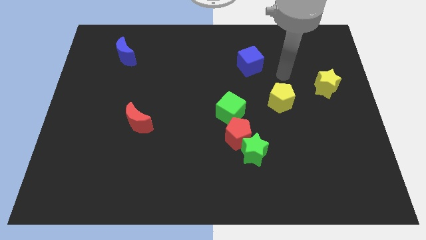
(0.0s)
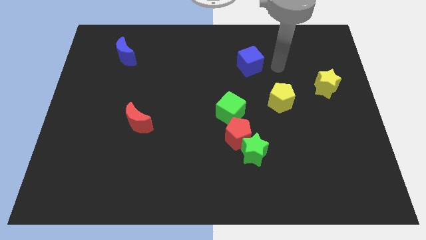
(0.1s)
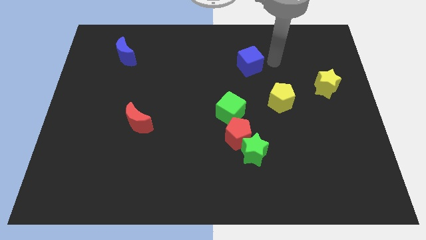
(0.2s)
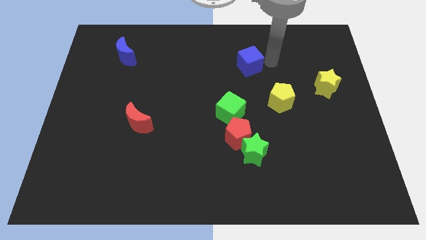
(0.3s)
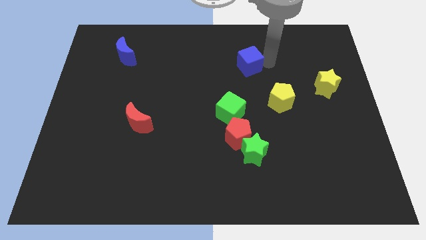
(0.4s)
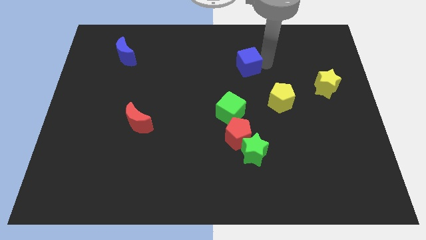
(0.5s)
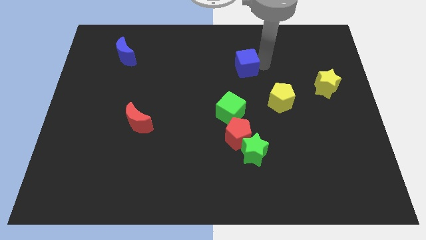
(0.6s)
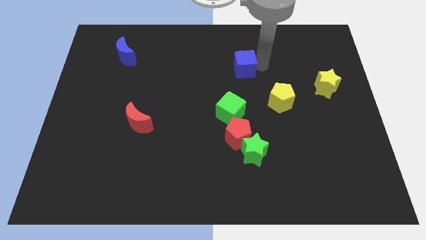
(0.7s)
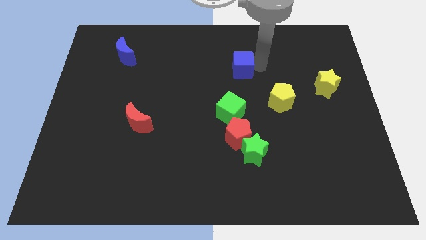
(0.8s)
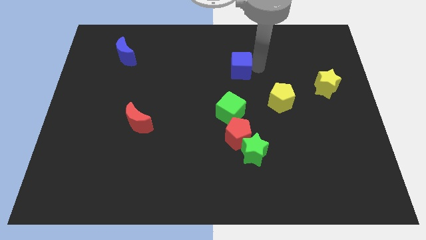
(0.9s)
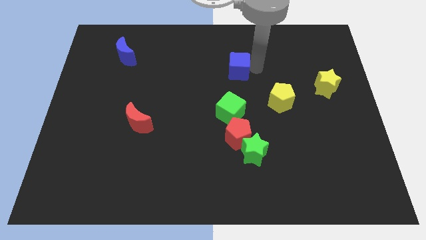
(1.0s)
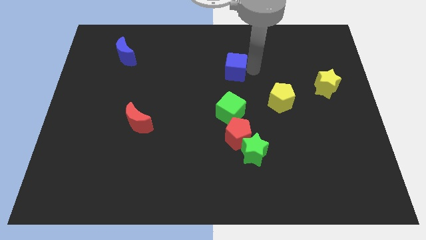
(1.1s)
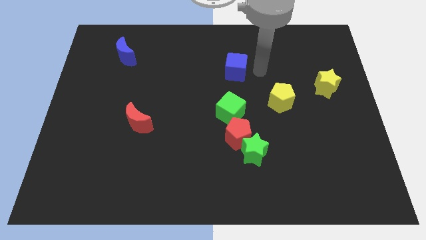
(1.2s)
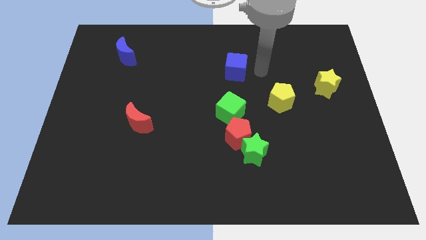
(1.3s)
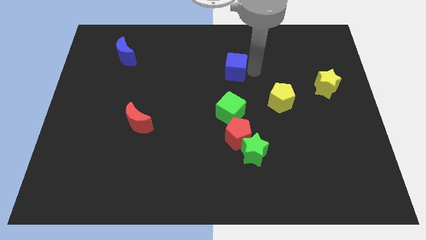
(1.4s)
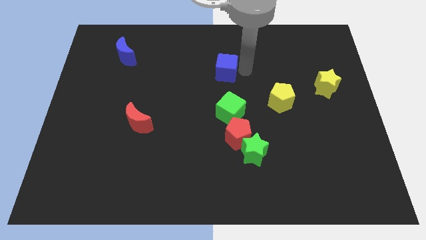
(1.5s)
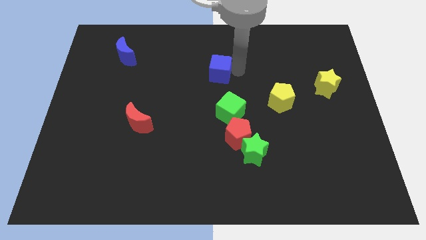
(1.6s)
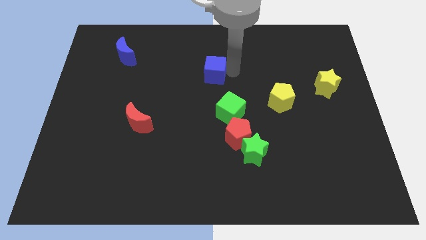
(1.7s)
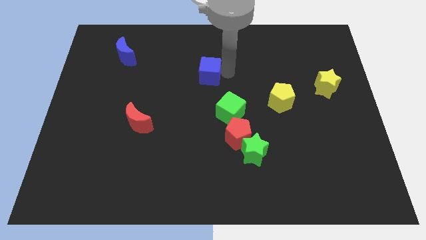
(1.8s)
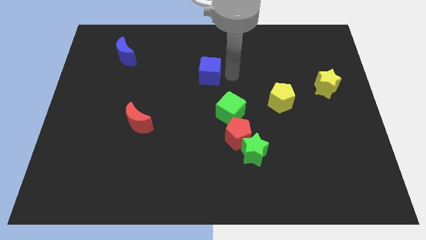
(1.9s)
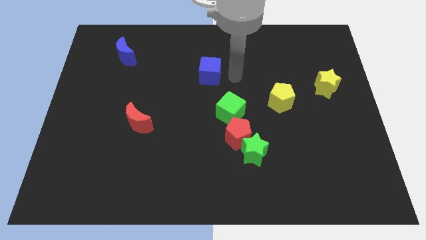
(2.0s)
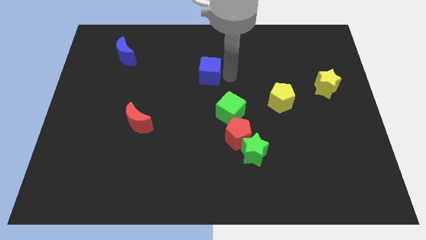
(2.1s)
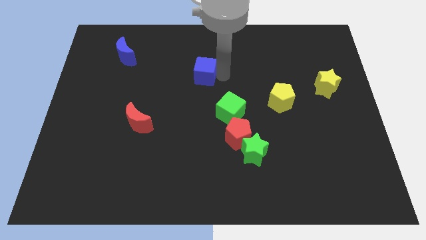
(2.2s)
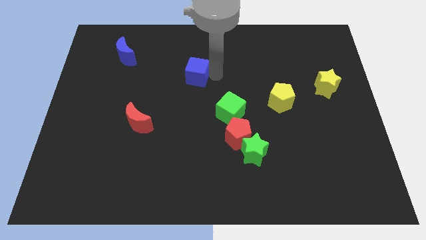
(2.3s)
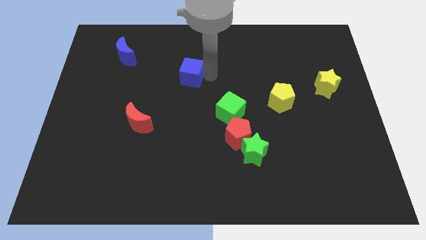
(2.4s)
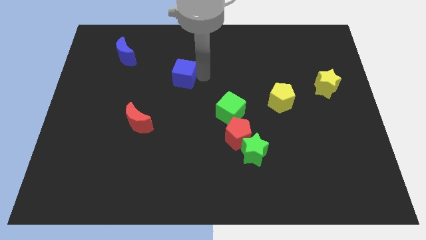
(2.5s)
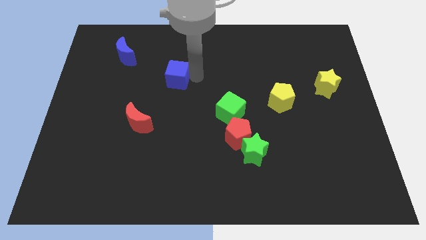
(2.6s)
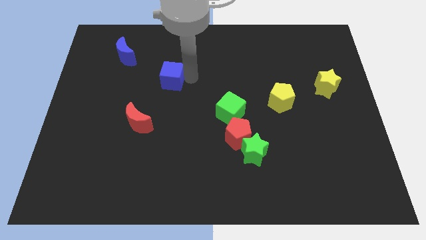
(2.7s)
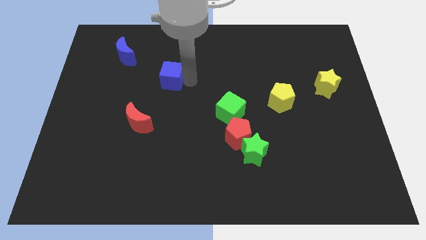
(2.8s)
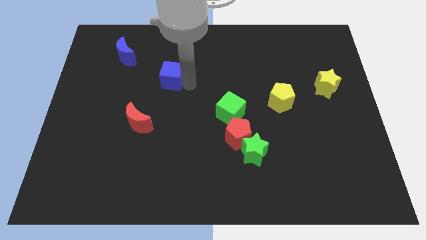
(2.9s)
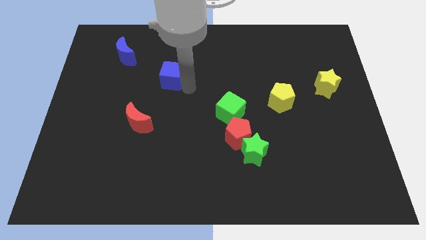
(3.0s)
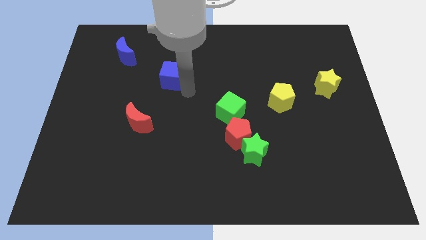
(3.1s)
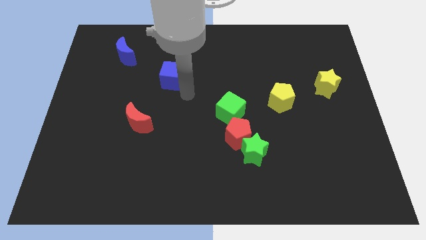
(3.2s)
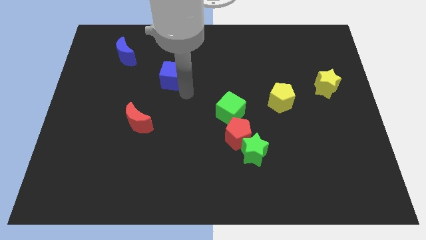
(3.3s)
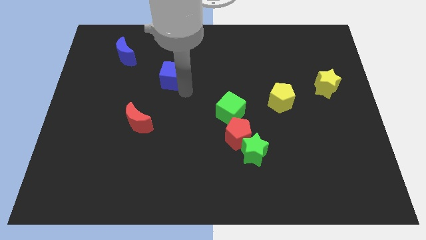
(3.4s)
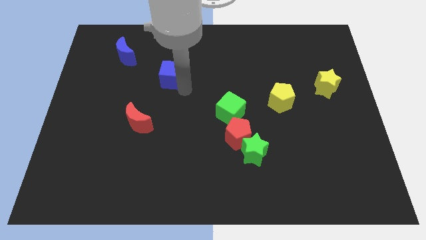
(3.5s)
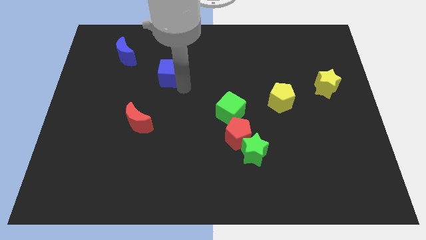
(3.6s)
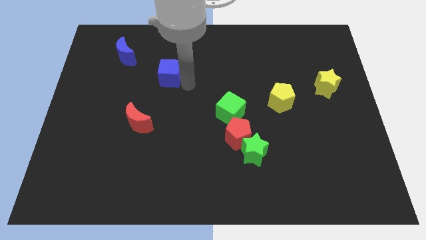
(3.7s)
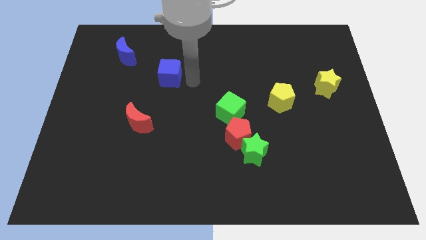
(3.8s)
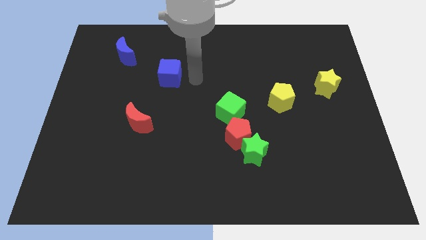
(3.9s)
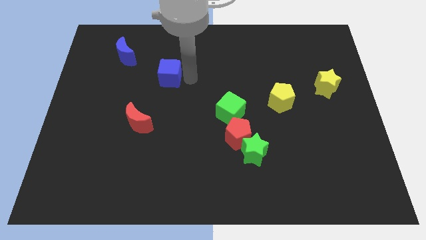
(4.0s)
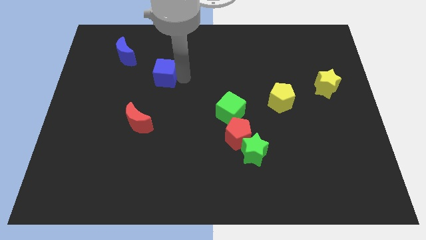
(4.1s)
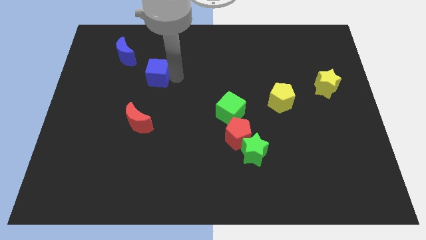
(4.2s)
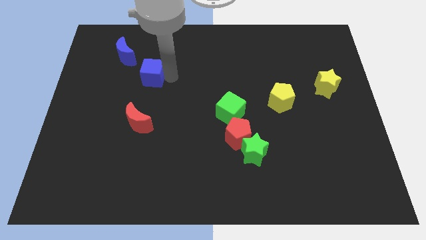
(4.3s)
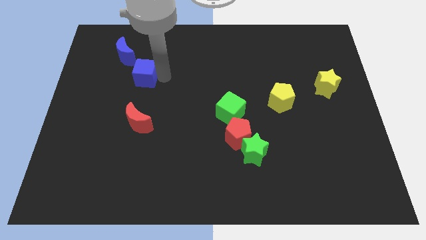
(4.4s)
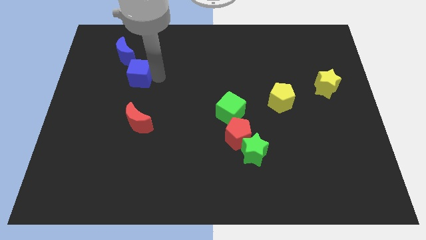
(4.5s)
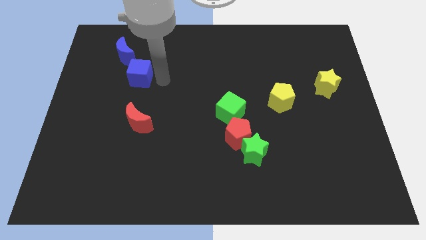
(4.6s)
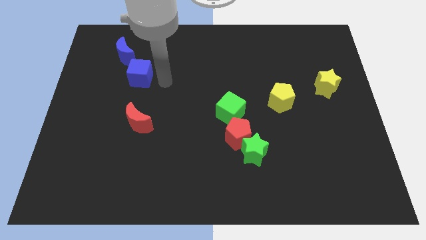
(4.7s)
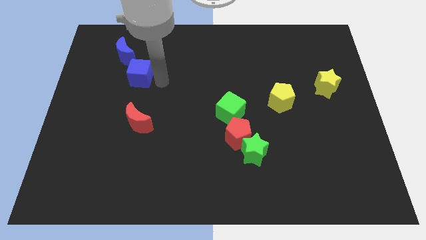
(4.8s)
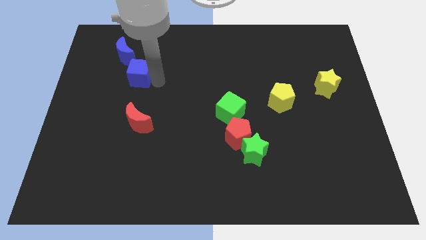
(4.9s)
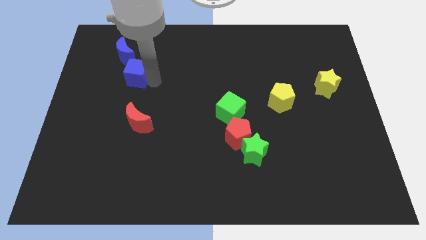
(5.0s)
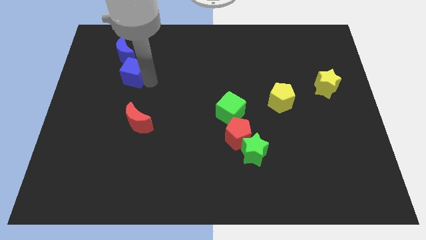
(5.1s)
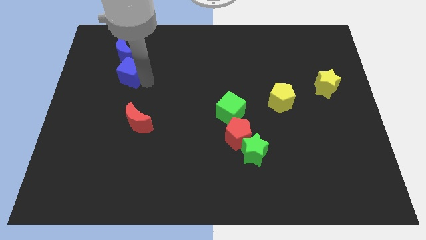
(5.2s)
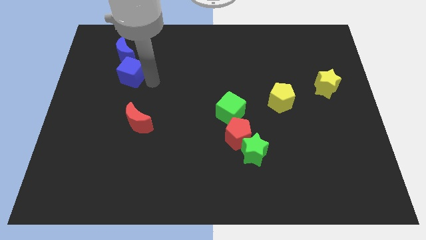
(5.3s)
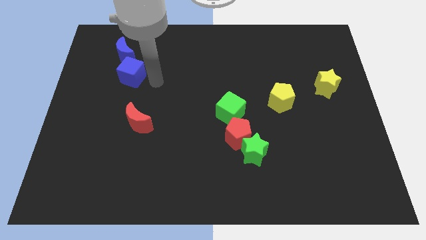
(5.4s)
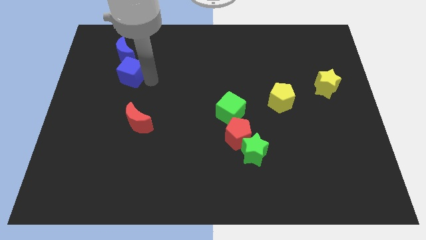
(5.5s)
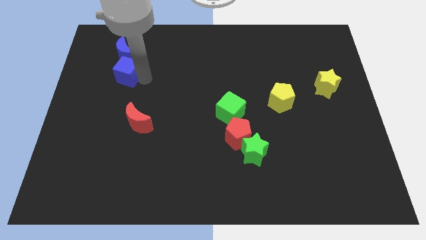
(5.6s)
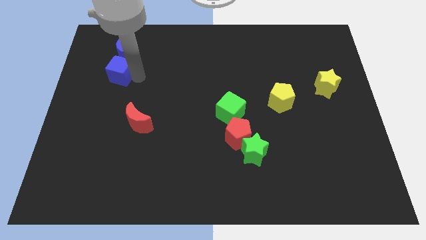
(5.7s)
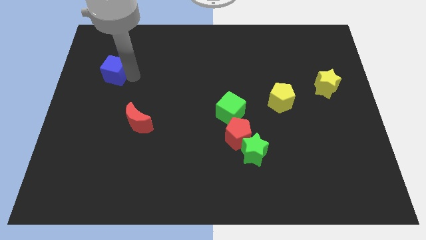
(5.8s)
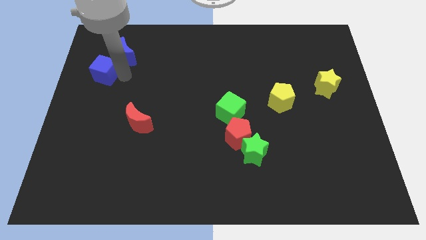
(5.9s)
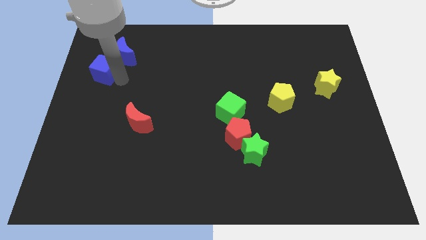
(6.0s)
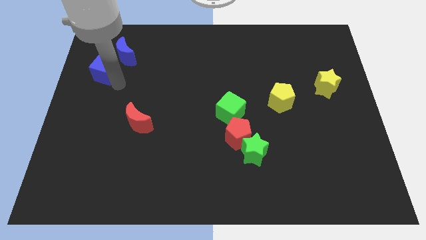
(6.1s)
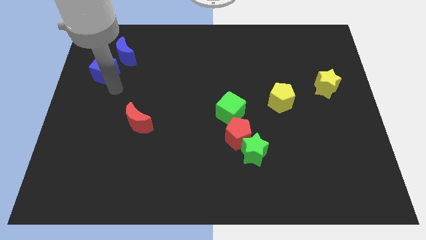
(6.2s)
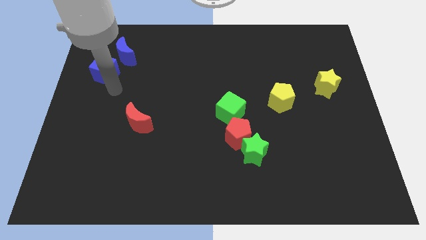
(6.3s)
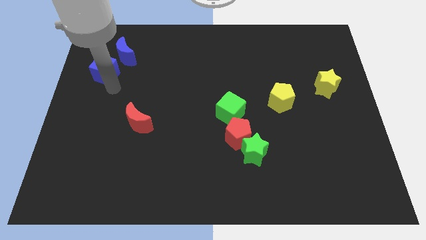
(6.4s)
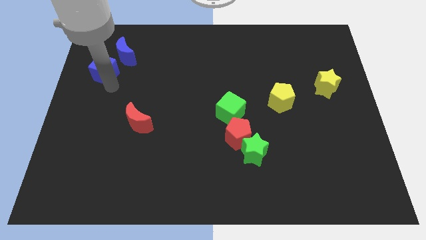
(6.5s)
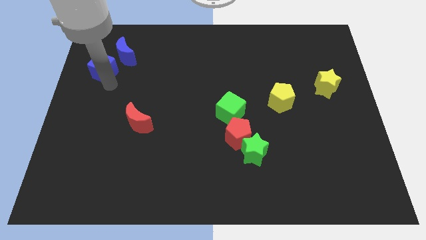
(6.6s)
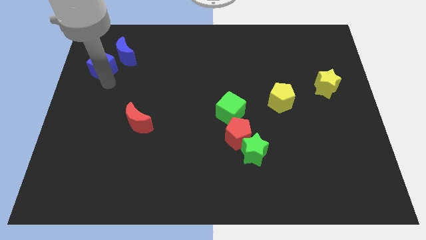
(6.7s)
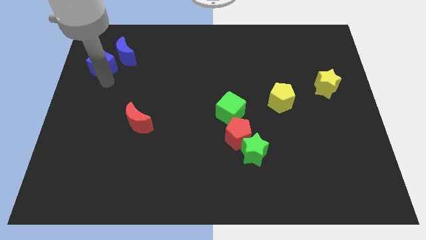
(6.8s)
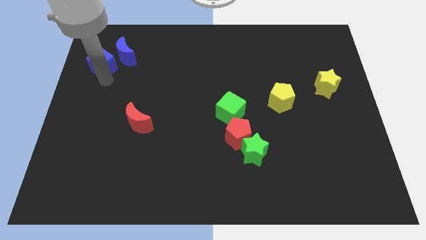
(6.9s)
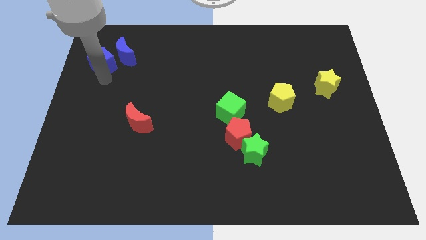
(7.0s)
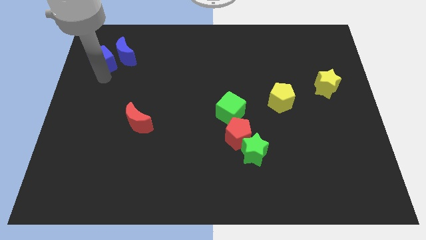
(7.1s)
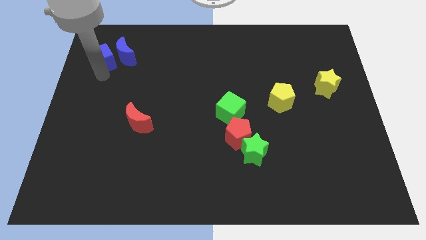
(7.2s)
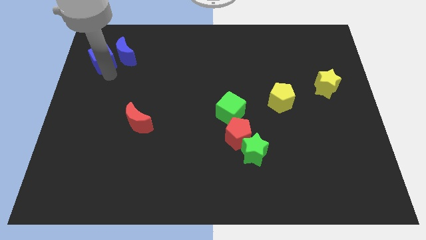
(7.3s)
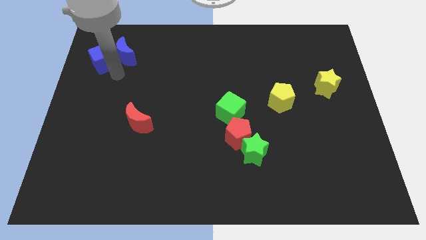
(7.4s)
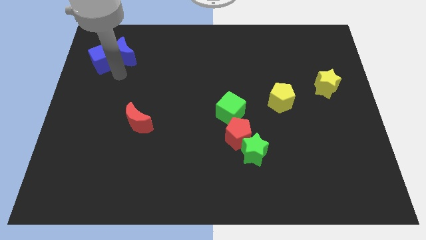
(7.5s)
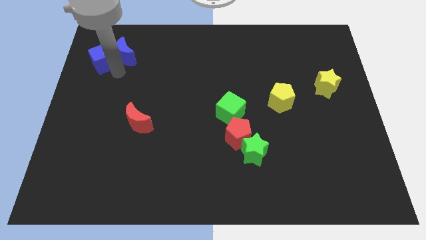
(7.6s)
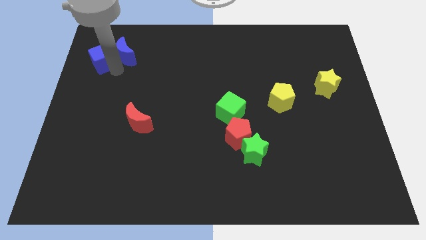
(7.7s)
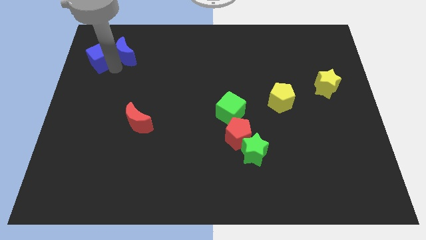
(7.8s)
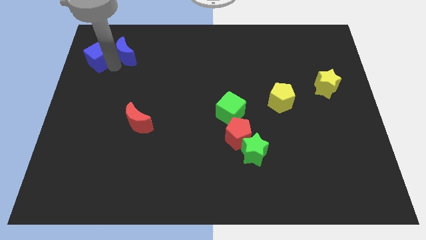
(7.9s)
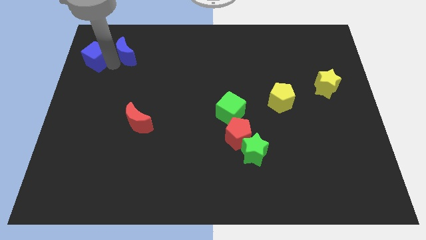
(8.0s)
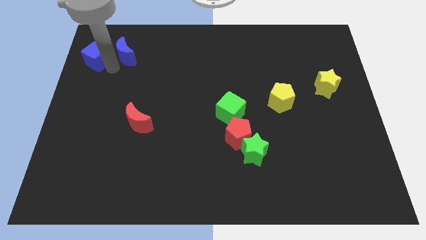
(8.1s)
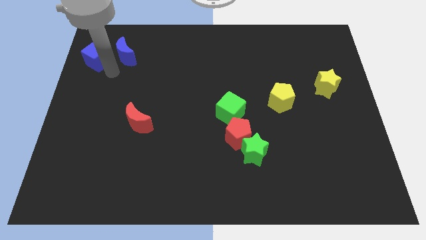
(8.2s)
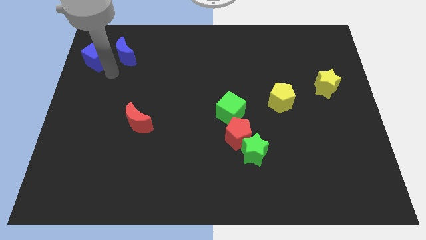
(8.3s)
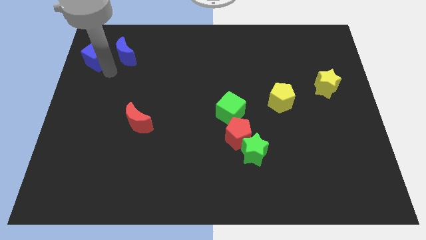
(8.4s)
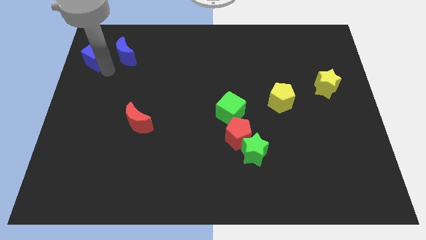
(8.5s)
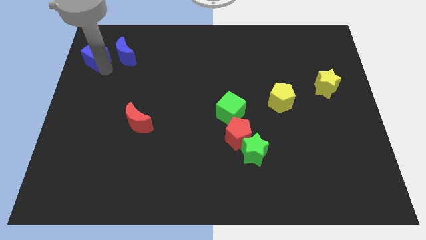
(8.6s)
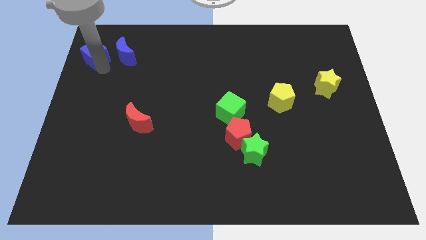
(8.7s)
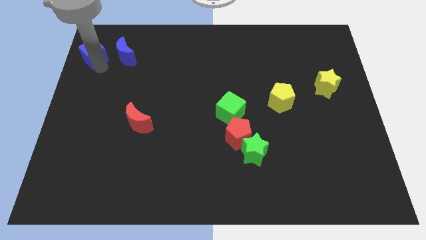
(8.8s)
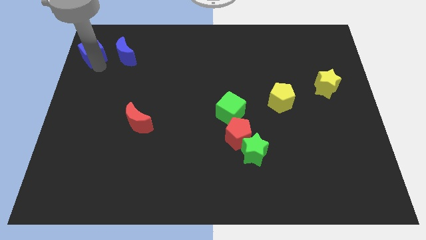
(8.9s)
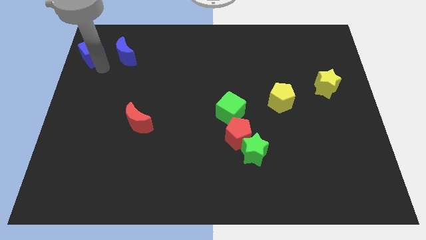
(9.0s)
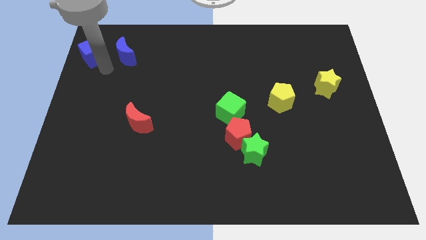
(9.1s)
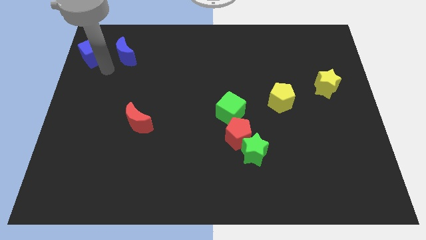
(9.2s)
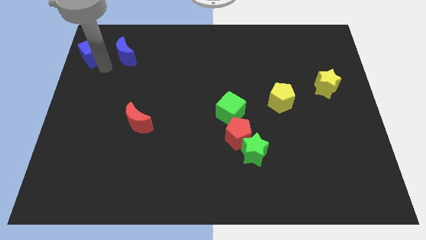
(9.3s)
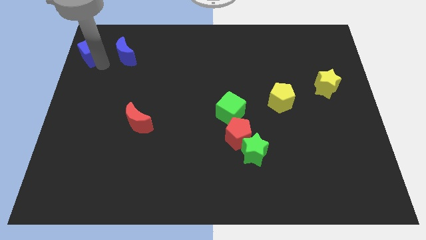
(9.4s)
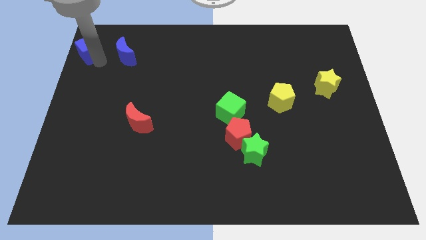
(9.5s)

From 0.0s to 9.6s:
put the blue cube to the top left of the board
